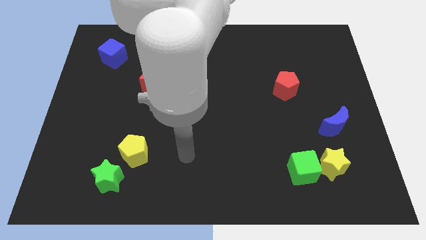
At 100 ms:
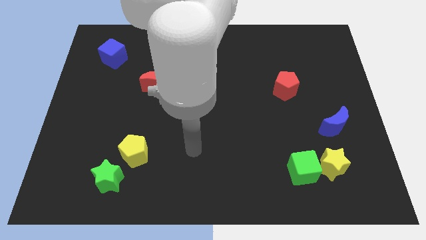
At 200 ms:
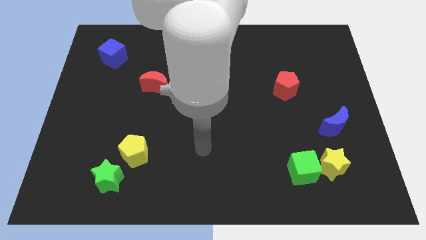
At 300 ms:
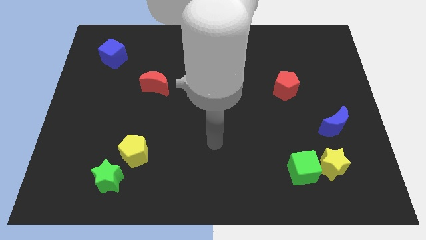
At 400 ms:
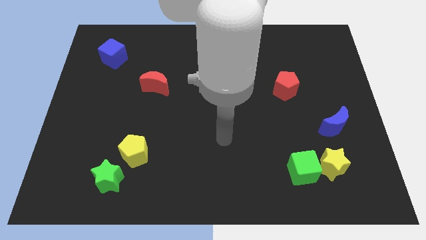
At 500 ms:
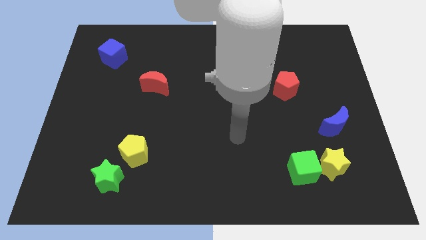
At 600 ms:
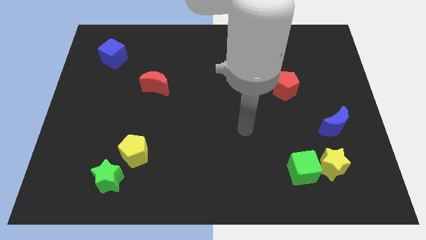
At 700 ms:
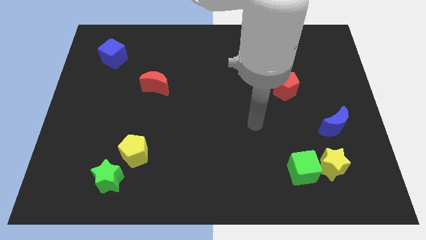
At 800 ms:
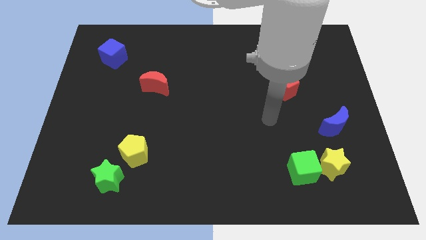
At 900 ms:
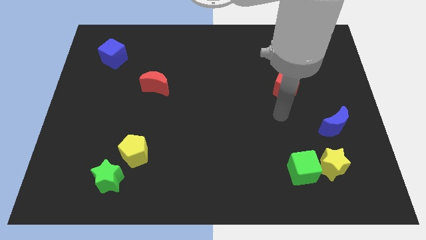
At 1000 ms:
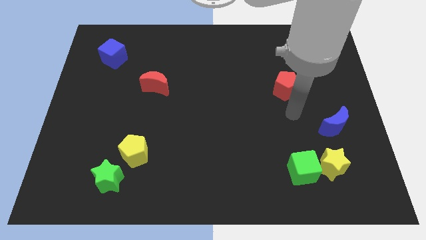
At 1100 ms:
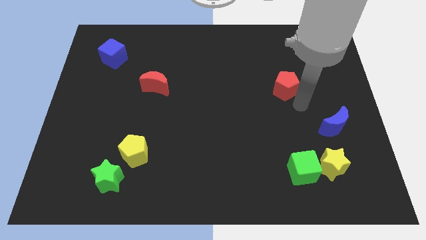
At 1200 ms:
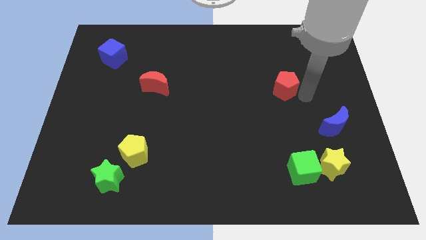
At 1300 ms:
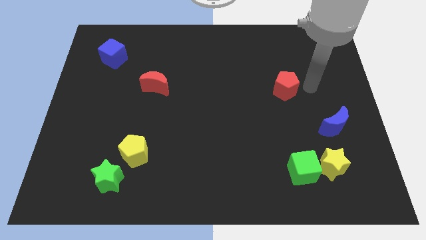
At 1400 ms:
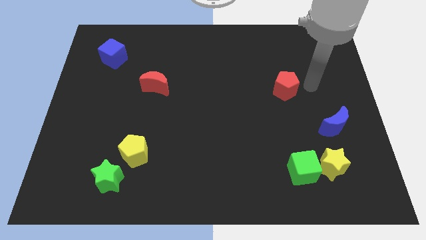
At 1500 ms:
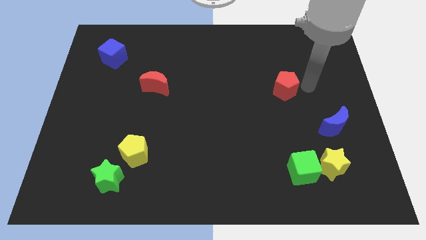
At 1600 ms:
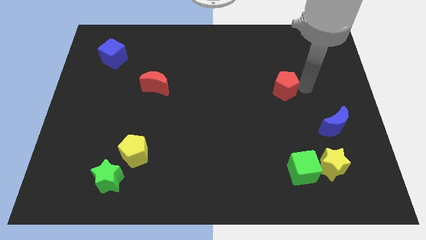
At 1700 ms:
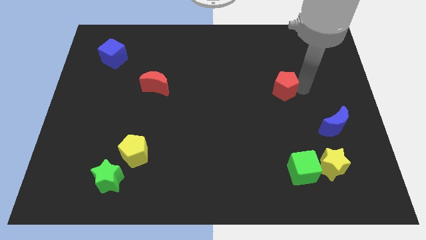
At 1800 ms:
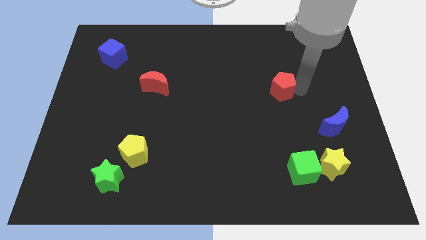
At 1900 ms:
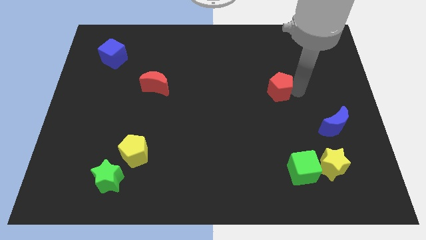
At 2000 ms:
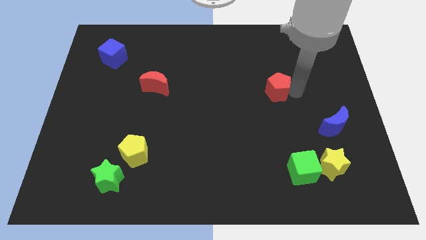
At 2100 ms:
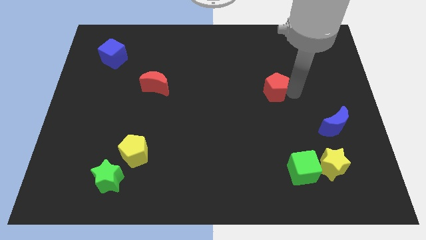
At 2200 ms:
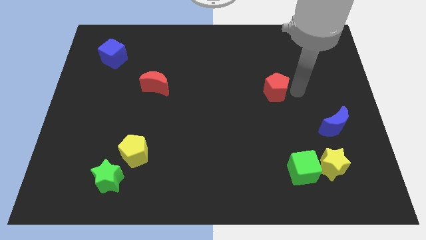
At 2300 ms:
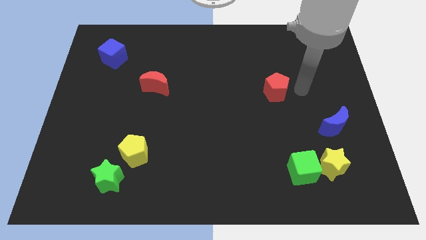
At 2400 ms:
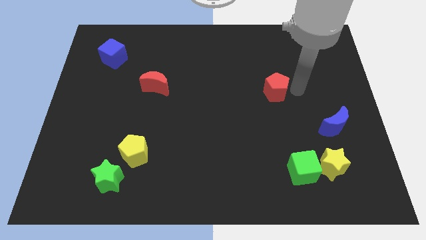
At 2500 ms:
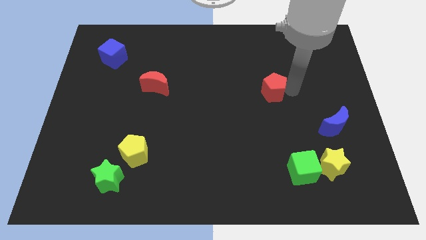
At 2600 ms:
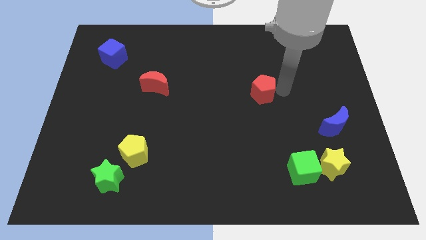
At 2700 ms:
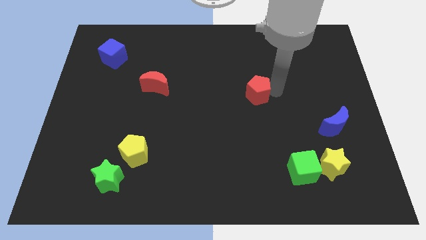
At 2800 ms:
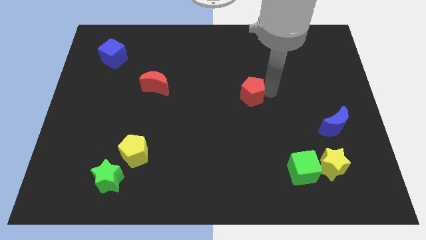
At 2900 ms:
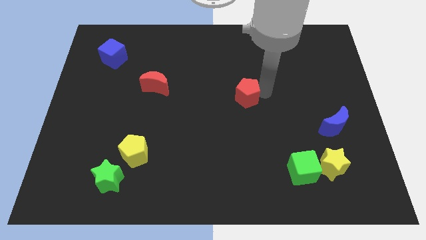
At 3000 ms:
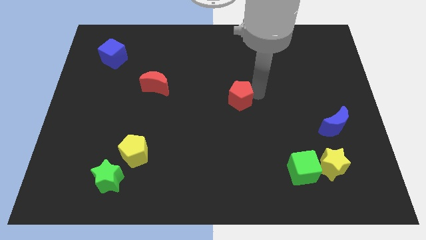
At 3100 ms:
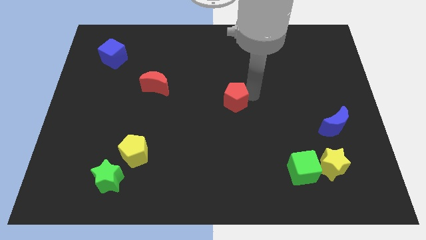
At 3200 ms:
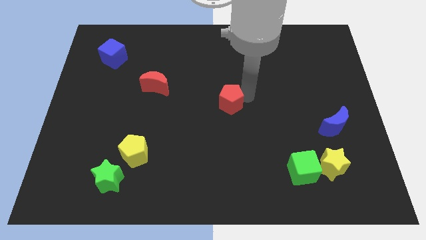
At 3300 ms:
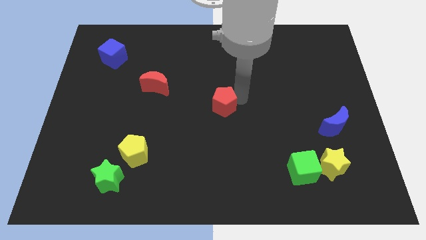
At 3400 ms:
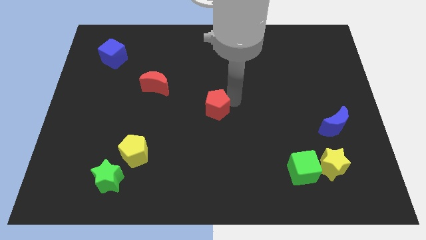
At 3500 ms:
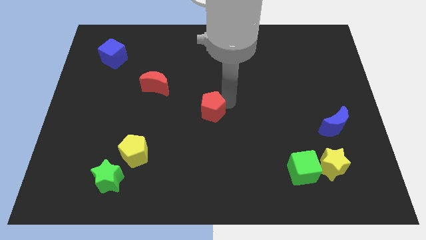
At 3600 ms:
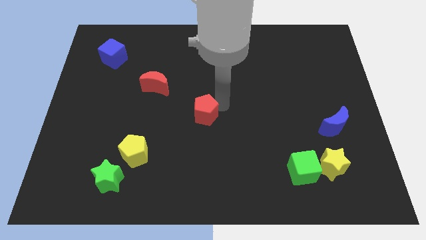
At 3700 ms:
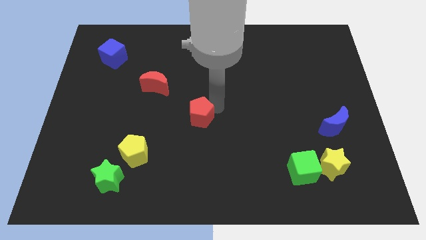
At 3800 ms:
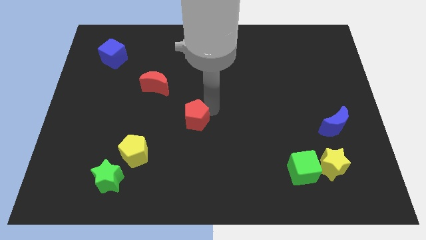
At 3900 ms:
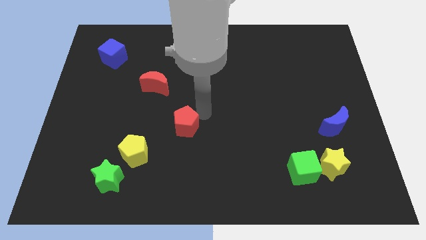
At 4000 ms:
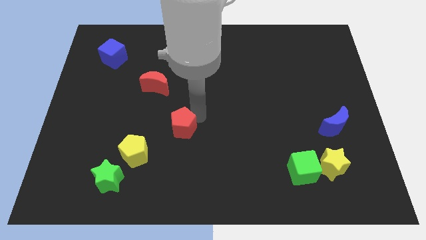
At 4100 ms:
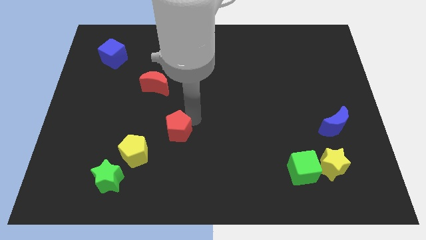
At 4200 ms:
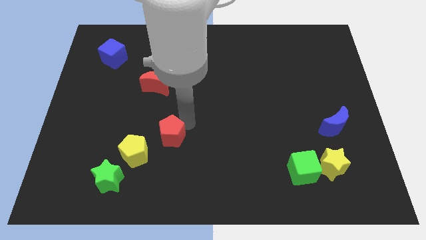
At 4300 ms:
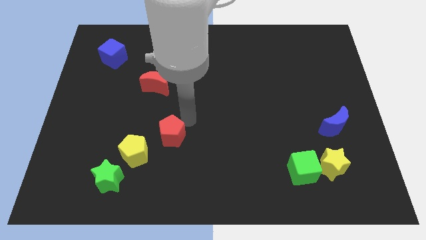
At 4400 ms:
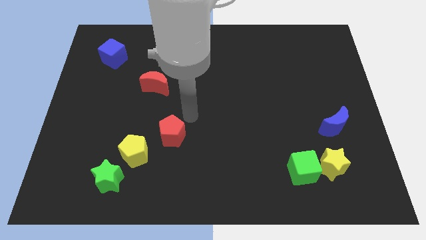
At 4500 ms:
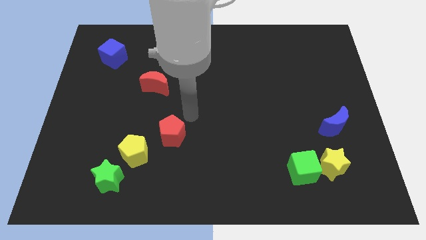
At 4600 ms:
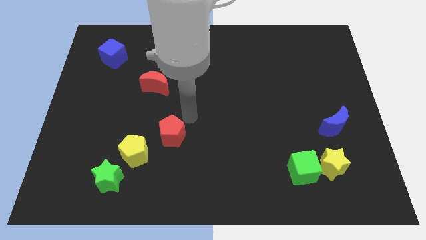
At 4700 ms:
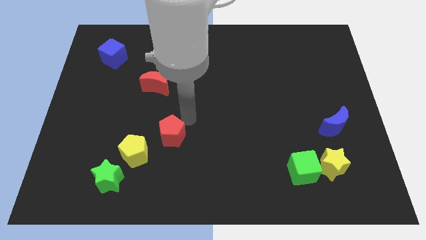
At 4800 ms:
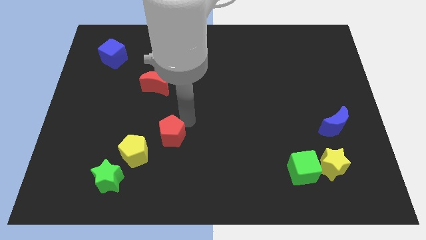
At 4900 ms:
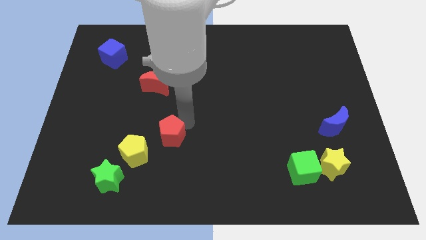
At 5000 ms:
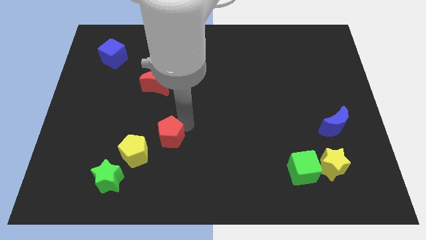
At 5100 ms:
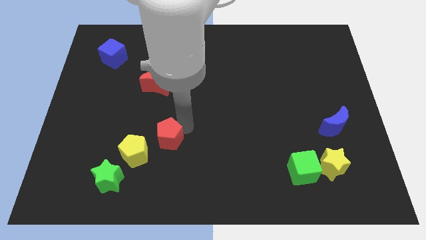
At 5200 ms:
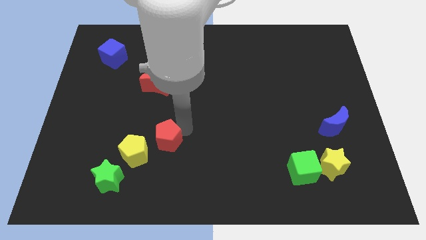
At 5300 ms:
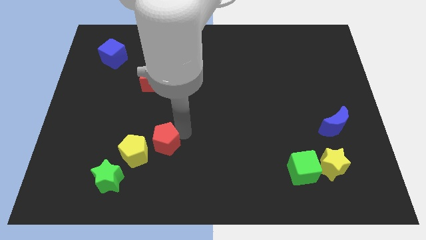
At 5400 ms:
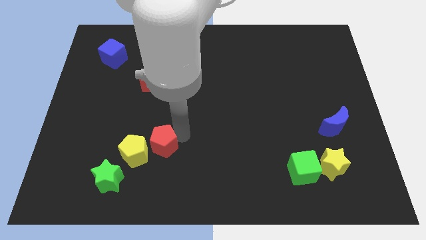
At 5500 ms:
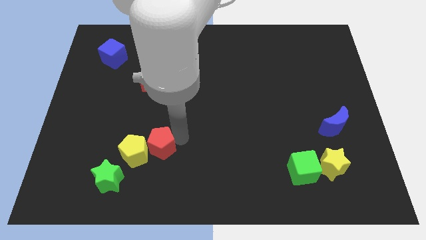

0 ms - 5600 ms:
push the red pentagon to the yellow pentagon

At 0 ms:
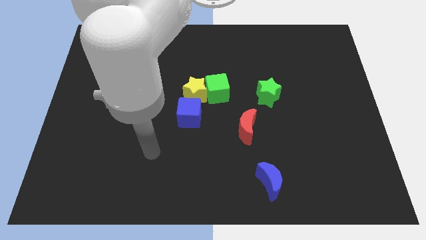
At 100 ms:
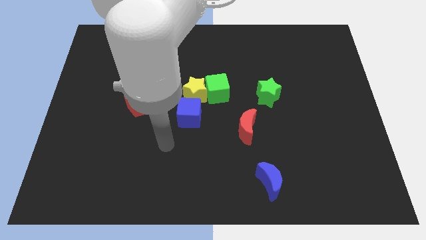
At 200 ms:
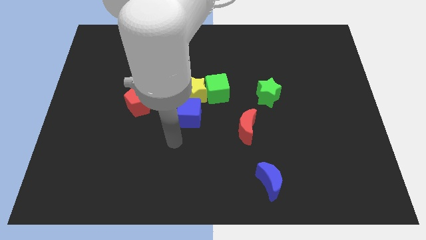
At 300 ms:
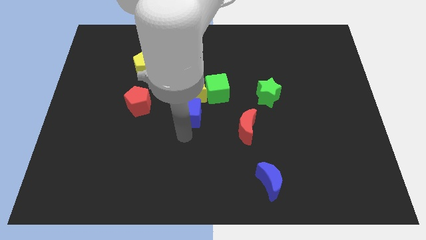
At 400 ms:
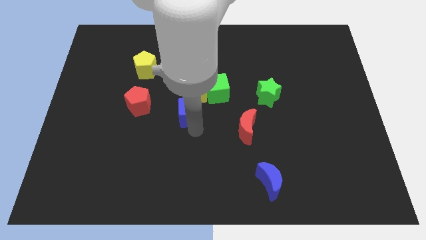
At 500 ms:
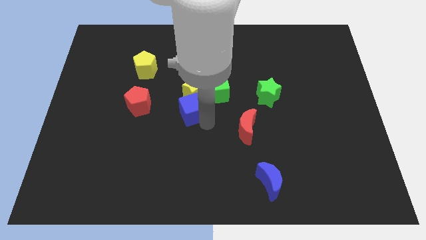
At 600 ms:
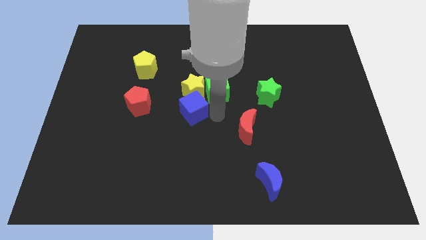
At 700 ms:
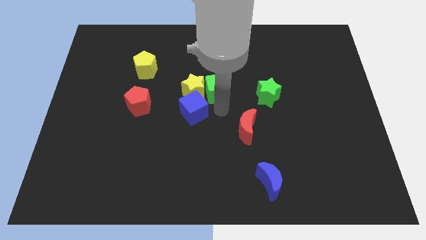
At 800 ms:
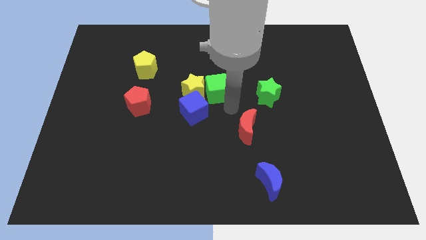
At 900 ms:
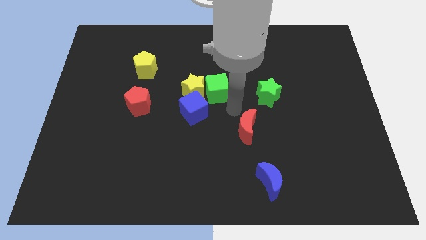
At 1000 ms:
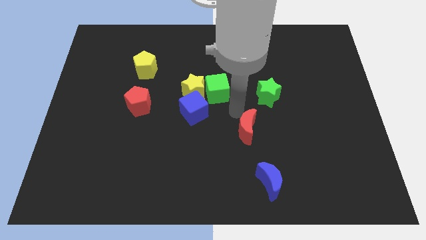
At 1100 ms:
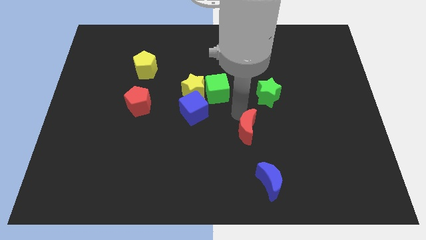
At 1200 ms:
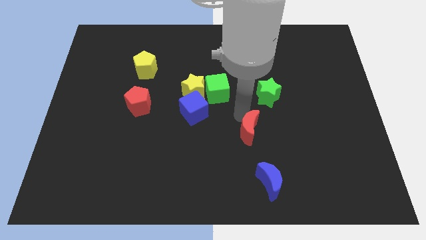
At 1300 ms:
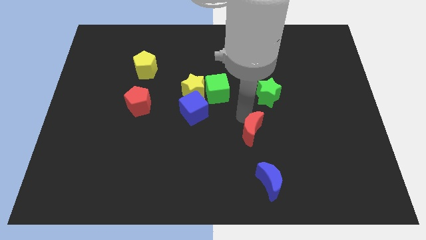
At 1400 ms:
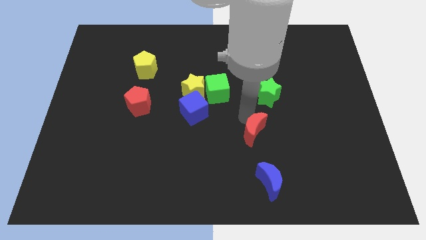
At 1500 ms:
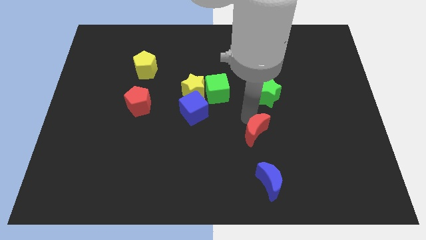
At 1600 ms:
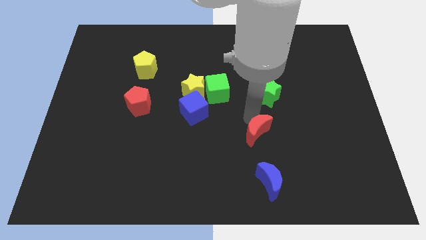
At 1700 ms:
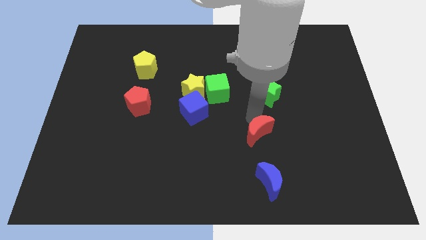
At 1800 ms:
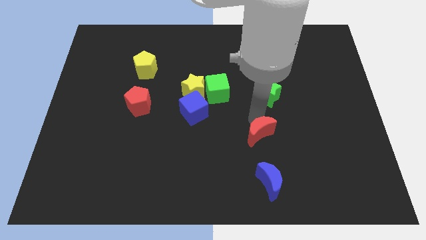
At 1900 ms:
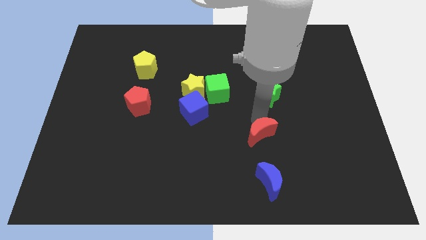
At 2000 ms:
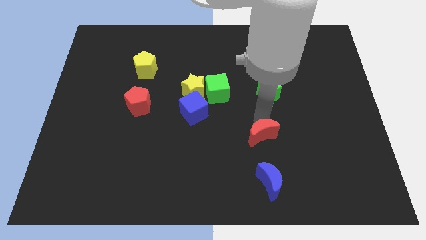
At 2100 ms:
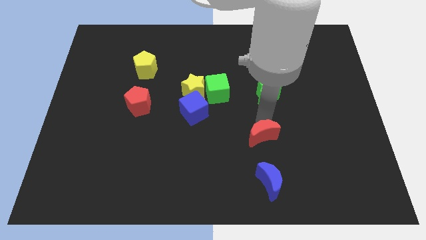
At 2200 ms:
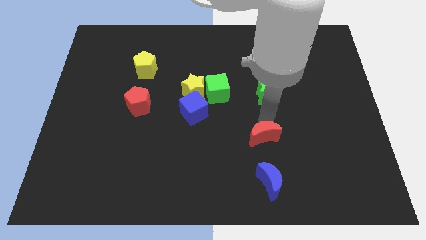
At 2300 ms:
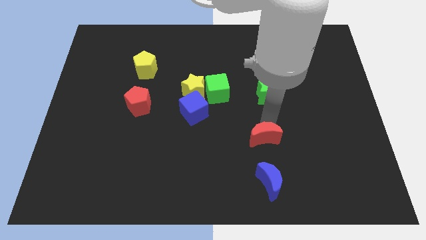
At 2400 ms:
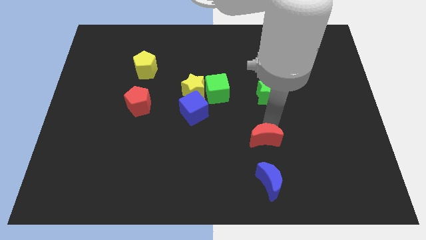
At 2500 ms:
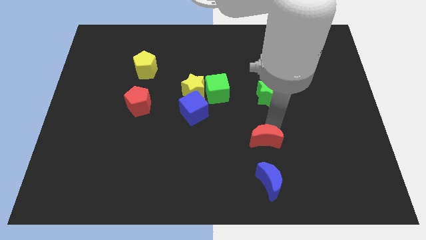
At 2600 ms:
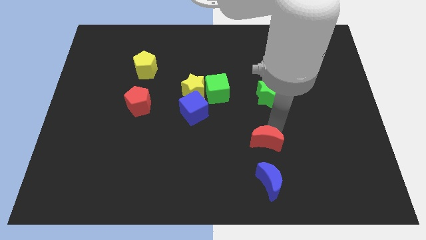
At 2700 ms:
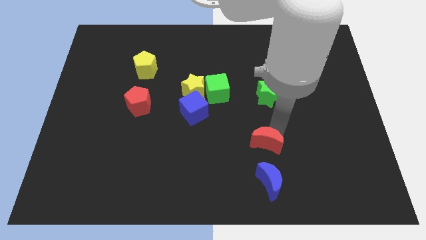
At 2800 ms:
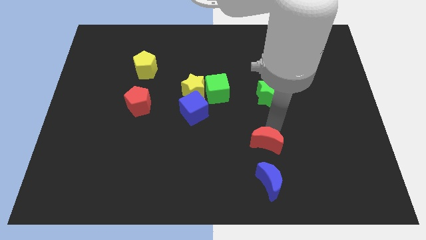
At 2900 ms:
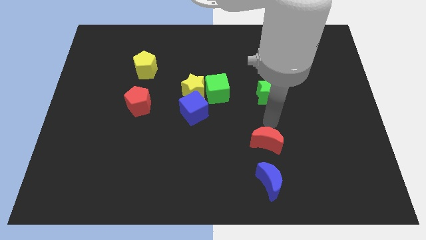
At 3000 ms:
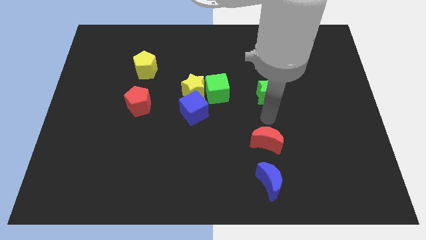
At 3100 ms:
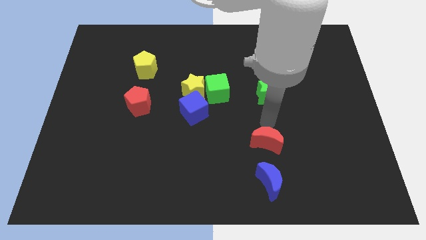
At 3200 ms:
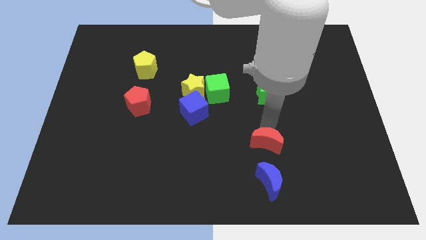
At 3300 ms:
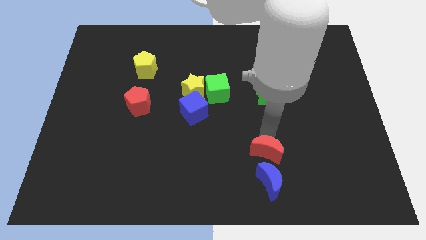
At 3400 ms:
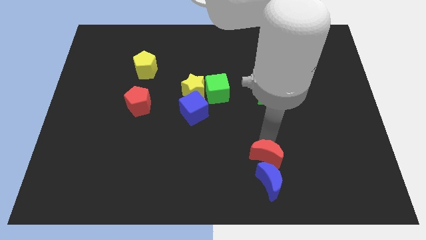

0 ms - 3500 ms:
move the red moon towards the blue moon
